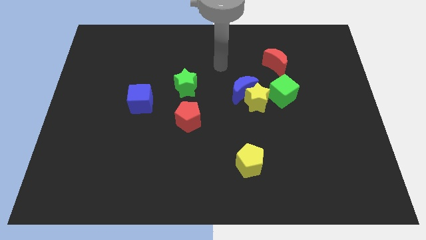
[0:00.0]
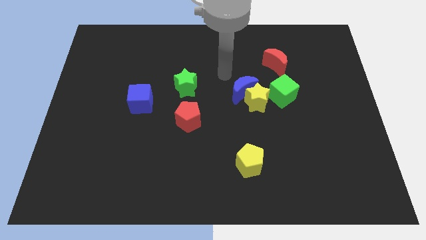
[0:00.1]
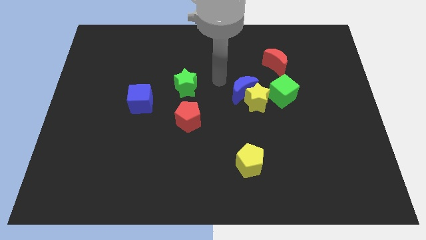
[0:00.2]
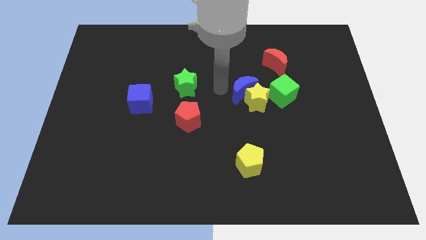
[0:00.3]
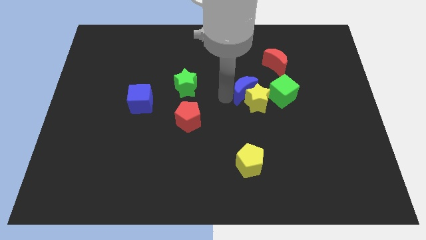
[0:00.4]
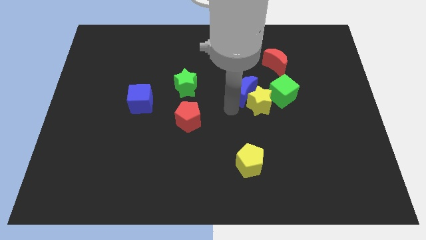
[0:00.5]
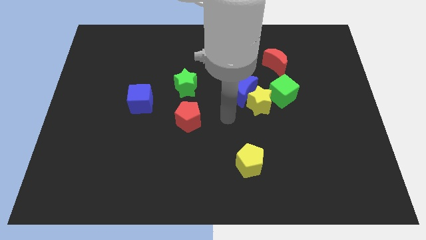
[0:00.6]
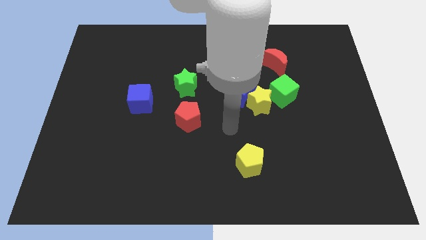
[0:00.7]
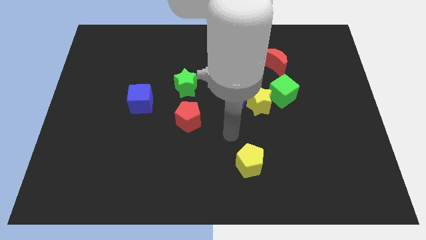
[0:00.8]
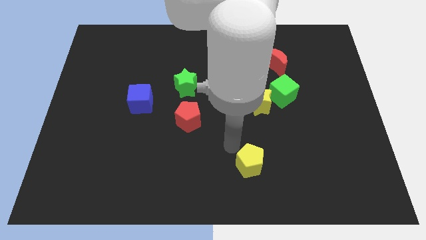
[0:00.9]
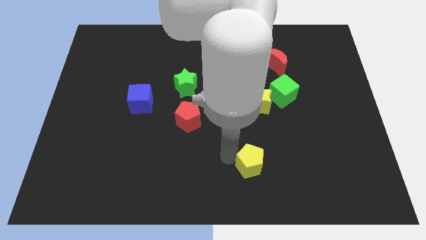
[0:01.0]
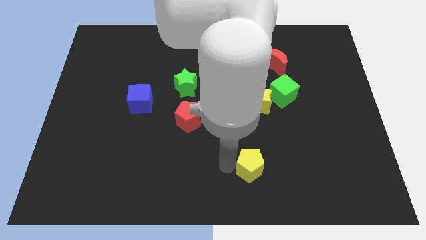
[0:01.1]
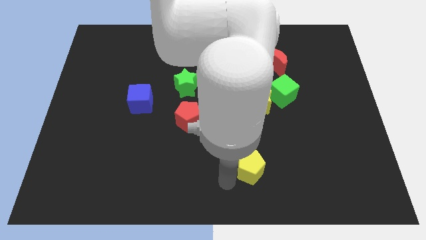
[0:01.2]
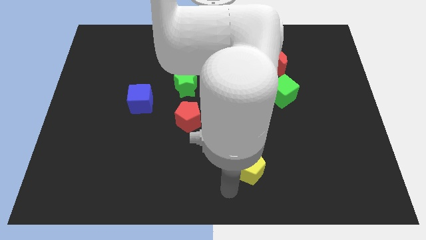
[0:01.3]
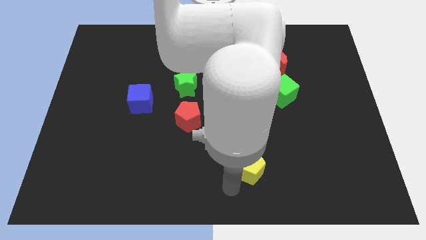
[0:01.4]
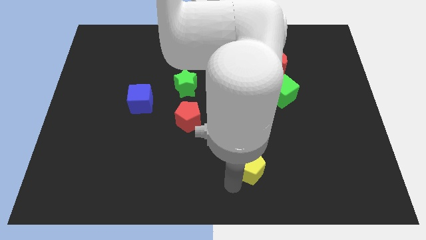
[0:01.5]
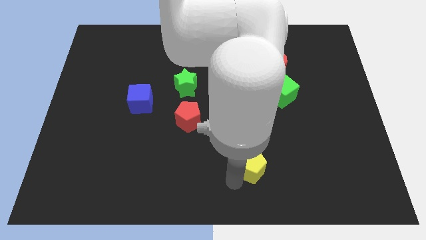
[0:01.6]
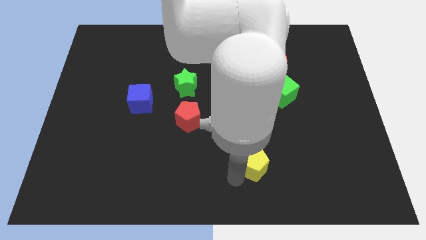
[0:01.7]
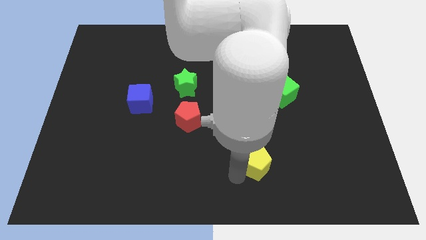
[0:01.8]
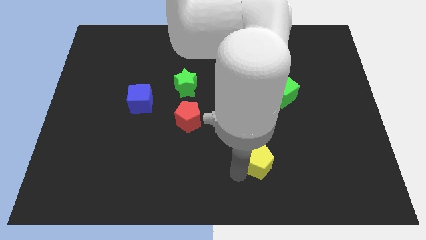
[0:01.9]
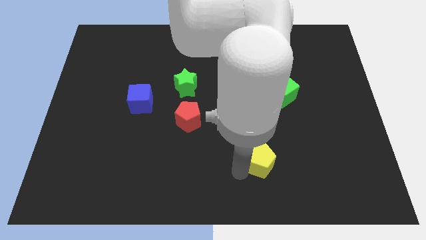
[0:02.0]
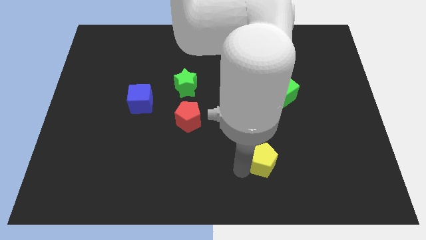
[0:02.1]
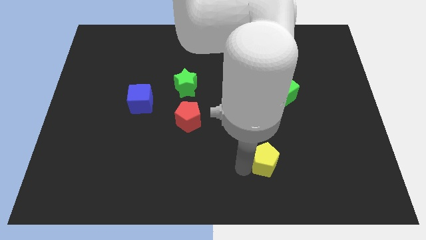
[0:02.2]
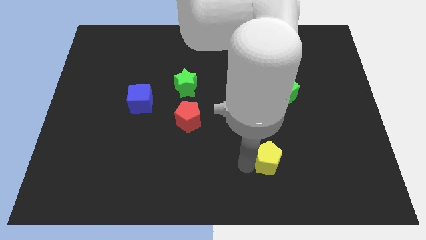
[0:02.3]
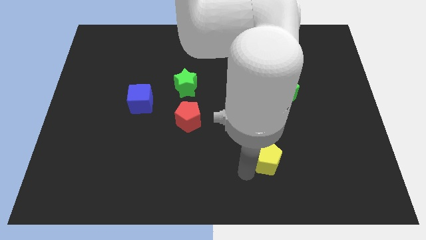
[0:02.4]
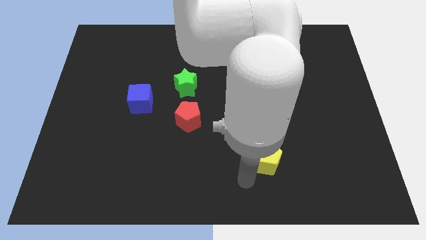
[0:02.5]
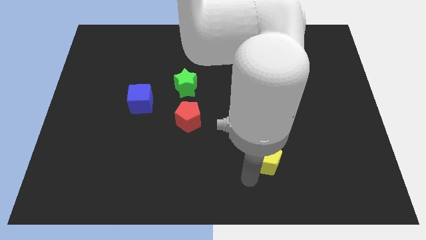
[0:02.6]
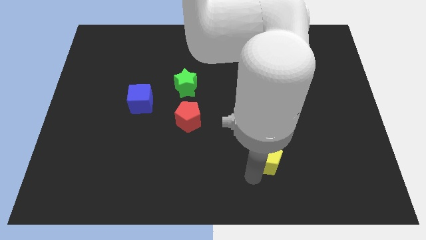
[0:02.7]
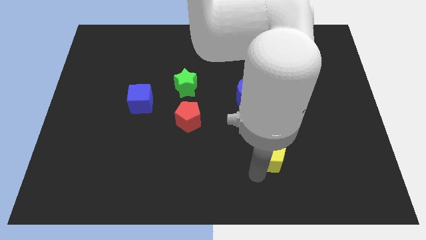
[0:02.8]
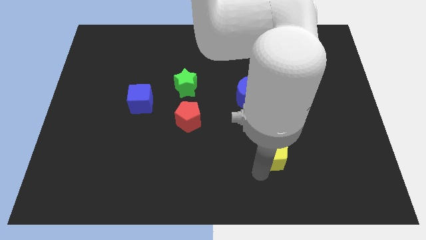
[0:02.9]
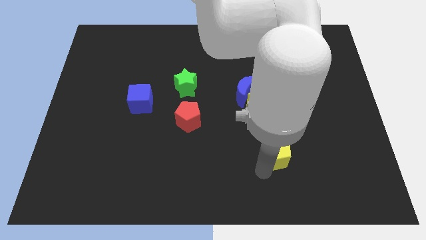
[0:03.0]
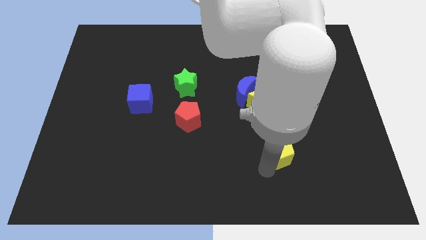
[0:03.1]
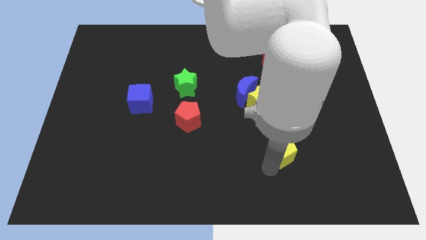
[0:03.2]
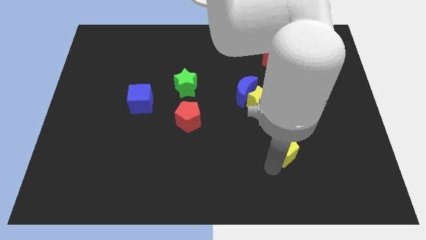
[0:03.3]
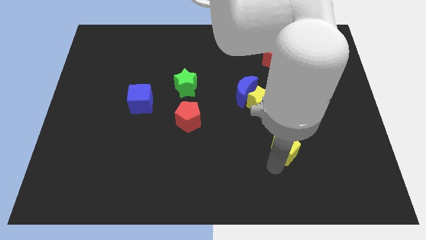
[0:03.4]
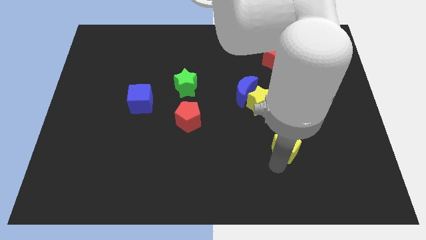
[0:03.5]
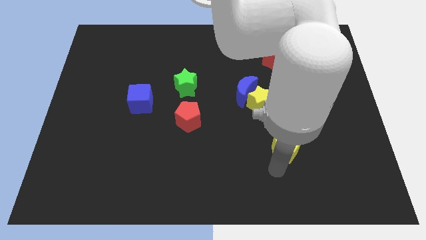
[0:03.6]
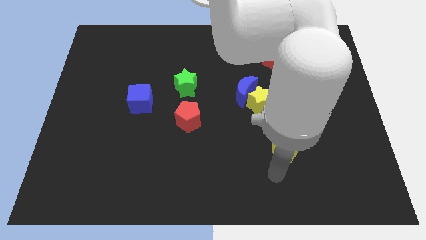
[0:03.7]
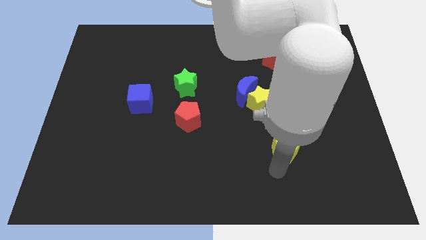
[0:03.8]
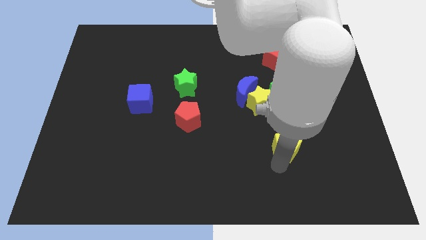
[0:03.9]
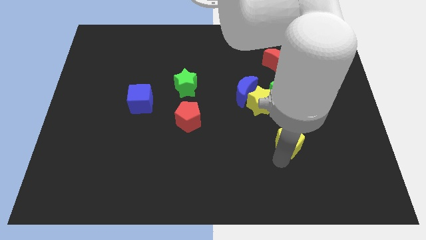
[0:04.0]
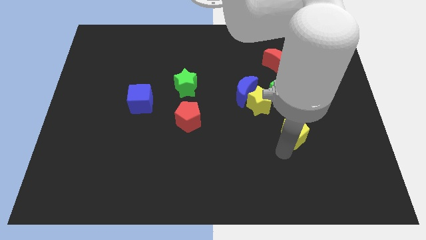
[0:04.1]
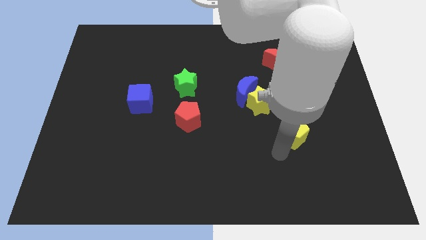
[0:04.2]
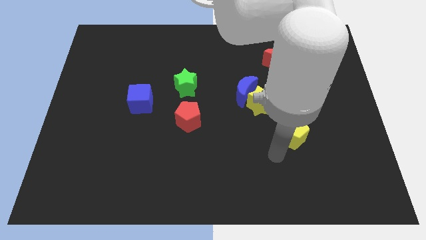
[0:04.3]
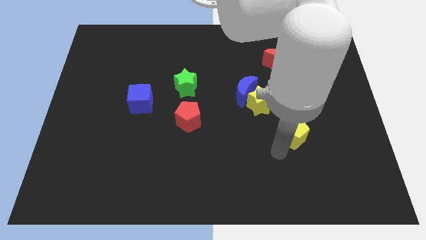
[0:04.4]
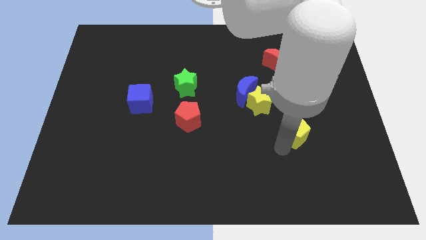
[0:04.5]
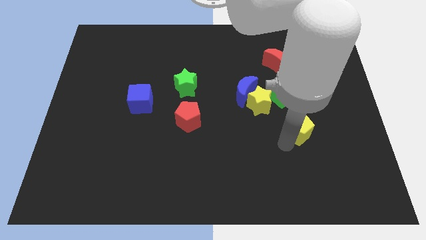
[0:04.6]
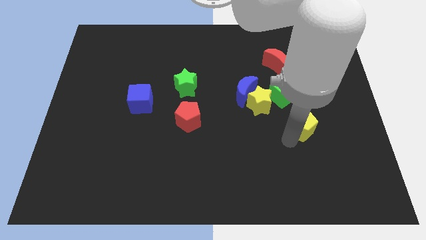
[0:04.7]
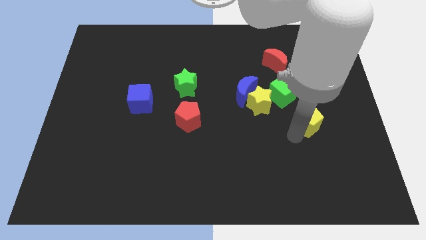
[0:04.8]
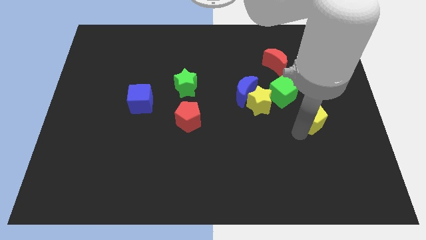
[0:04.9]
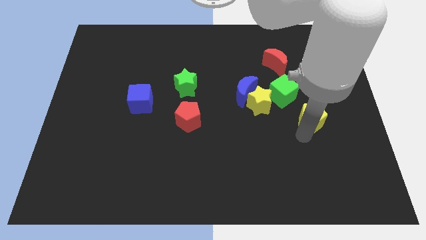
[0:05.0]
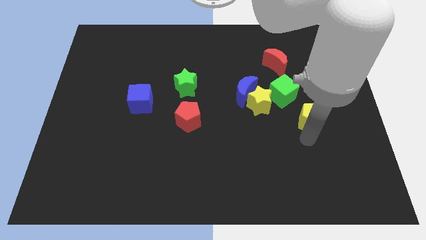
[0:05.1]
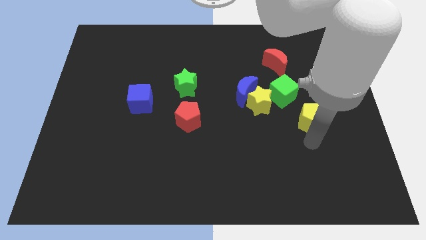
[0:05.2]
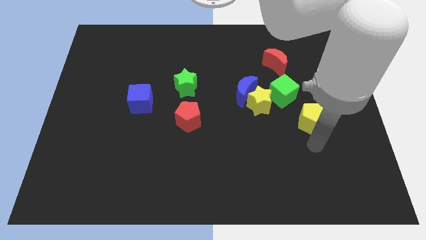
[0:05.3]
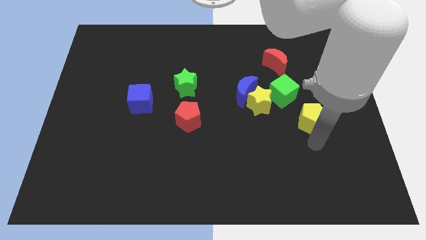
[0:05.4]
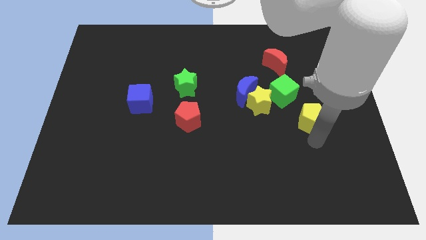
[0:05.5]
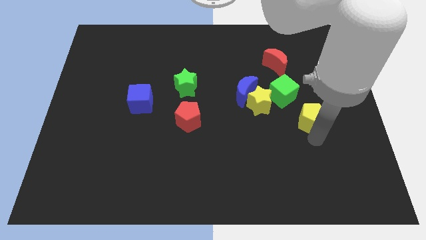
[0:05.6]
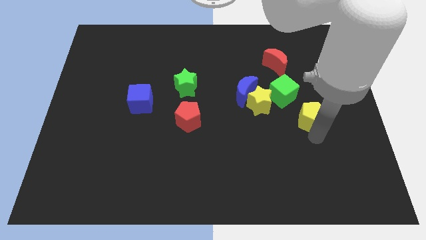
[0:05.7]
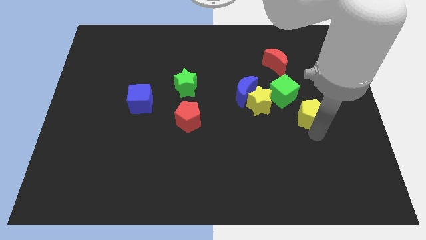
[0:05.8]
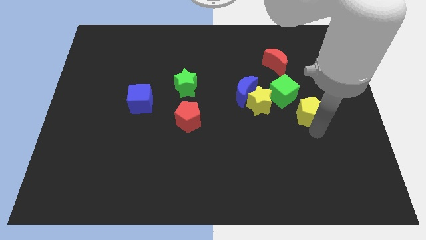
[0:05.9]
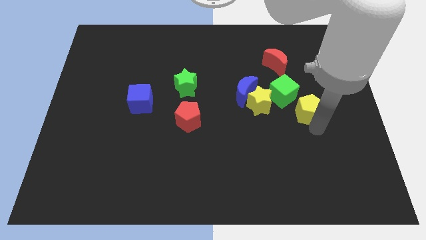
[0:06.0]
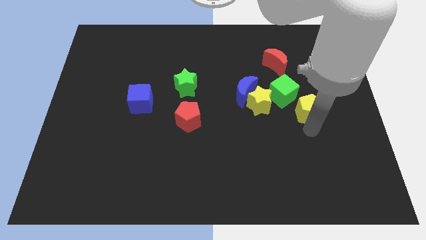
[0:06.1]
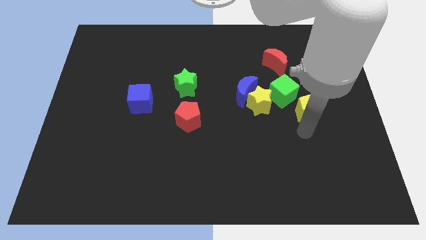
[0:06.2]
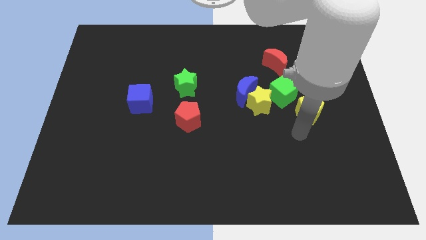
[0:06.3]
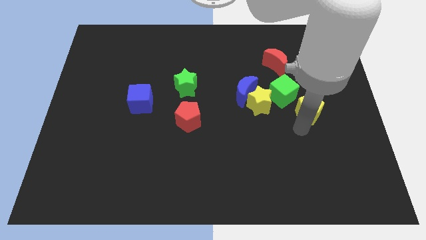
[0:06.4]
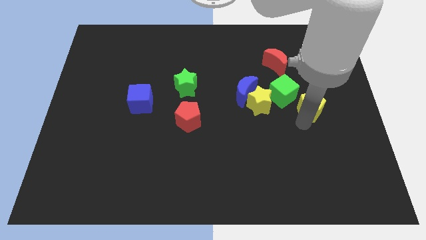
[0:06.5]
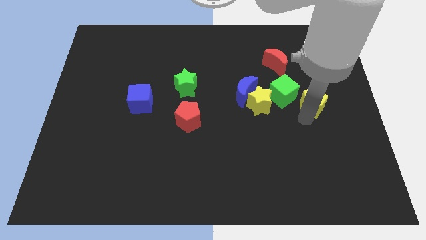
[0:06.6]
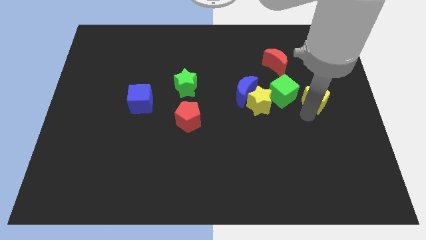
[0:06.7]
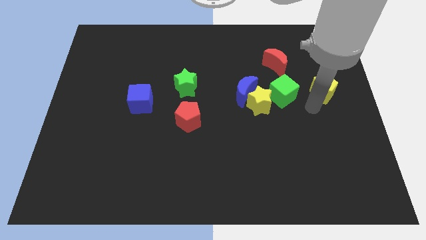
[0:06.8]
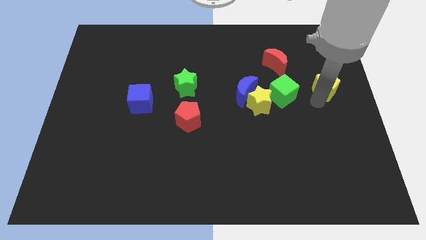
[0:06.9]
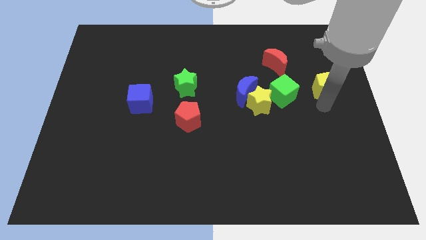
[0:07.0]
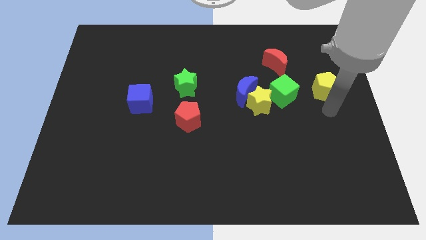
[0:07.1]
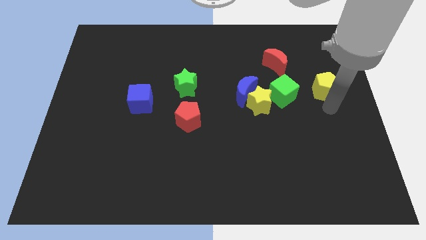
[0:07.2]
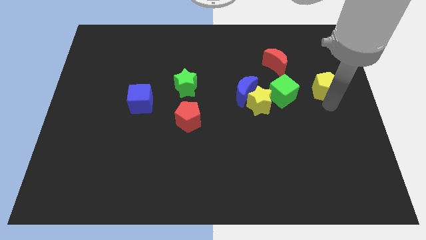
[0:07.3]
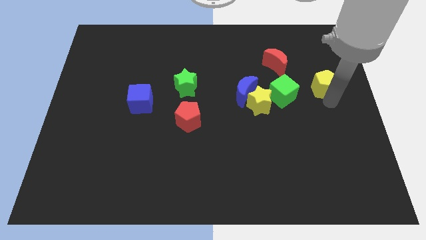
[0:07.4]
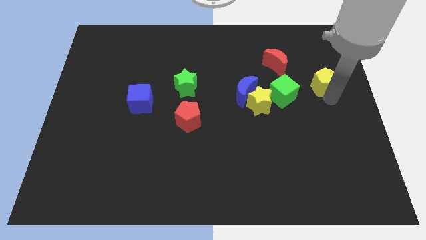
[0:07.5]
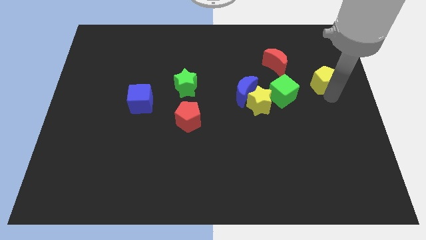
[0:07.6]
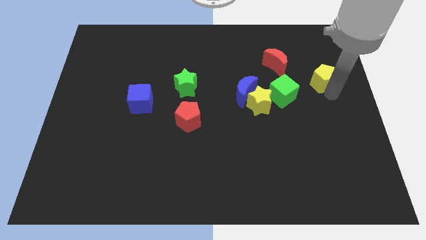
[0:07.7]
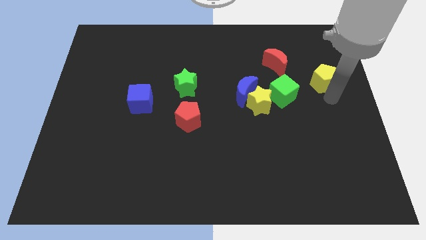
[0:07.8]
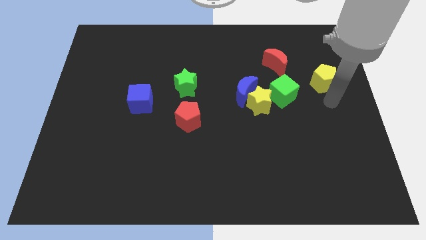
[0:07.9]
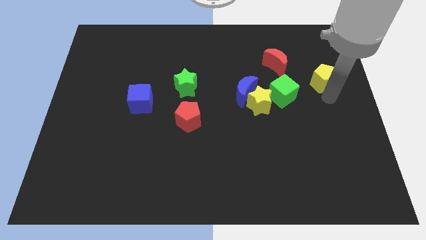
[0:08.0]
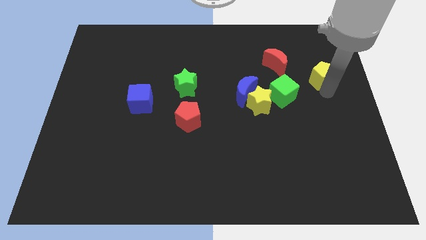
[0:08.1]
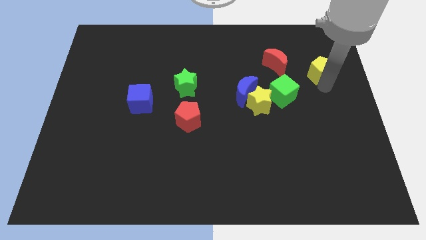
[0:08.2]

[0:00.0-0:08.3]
move the yellow pentagon to the right side of the red moon
